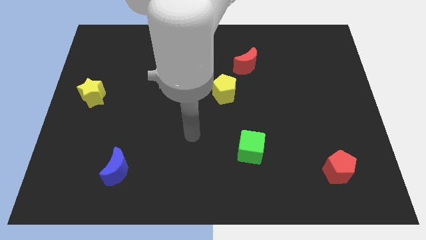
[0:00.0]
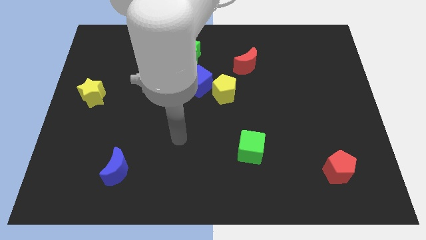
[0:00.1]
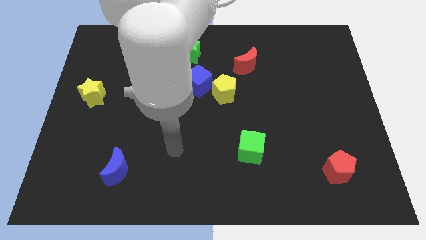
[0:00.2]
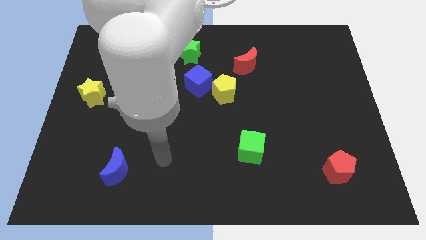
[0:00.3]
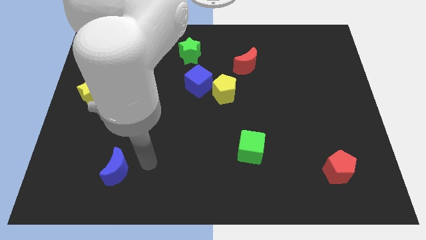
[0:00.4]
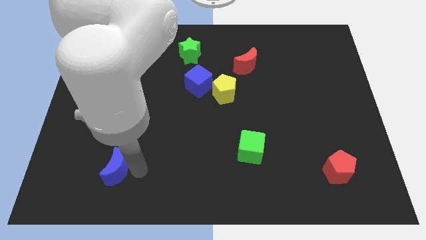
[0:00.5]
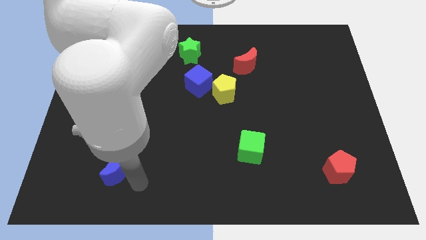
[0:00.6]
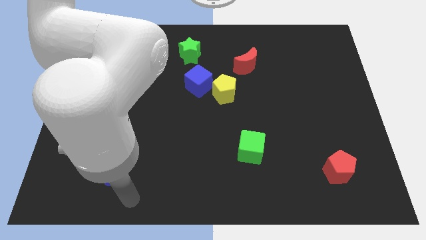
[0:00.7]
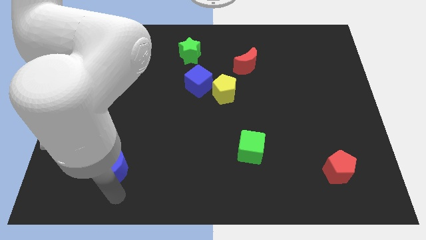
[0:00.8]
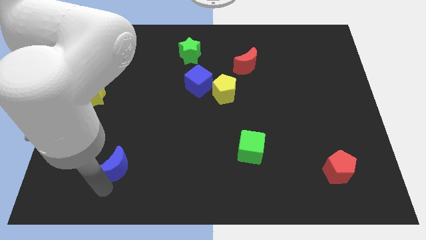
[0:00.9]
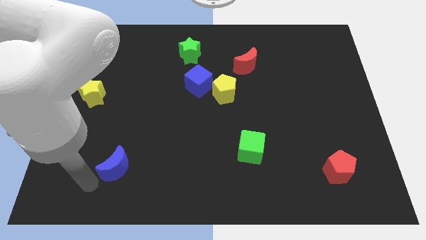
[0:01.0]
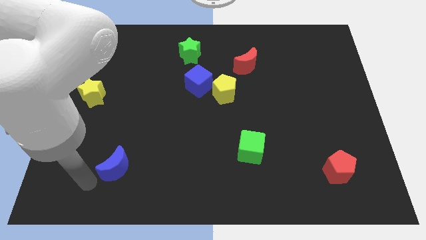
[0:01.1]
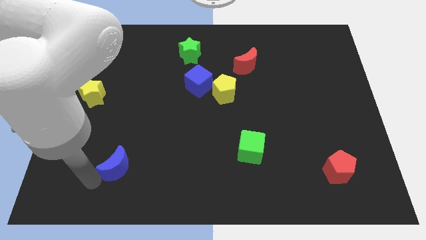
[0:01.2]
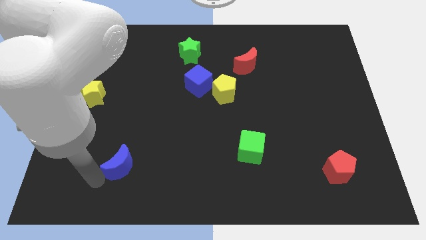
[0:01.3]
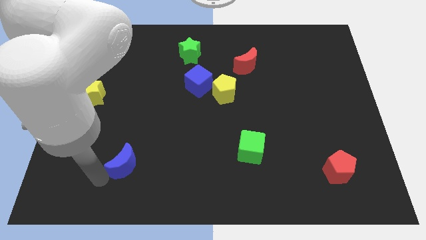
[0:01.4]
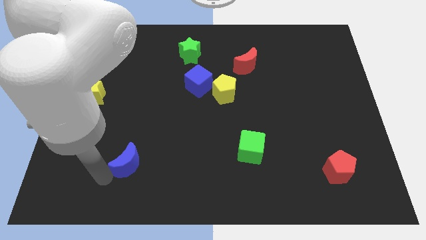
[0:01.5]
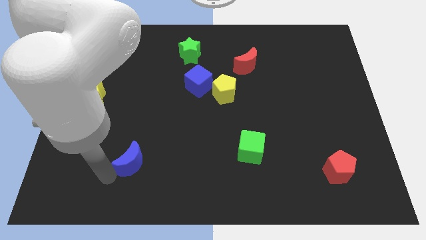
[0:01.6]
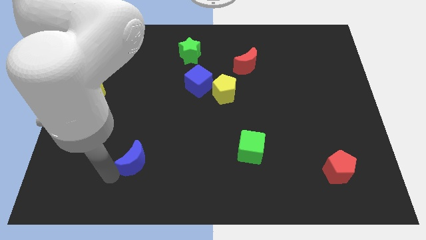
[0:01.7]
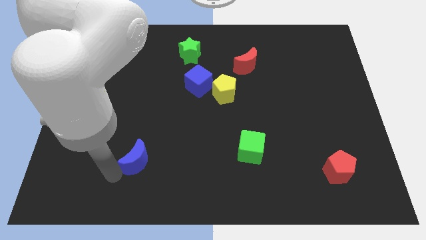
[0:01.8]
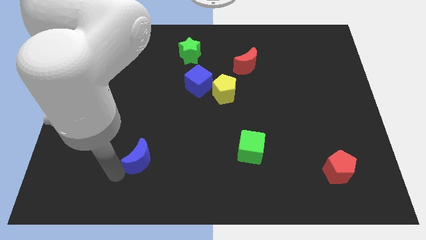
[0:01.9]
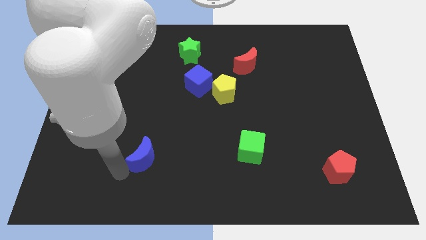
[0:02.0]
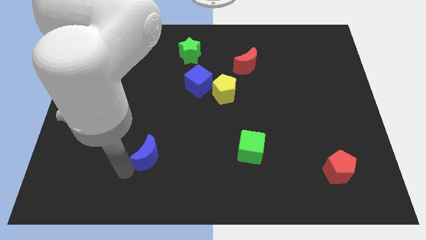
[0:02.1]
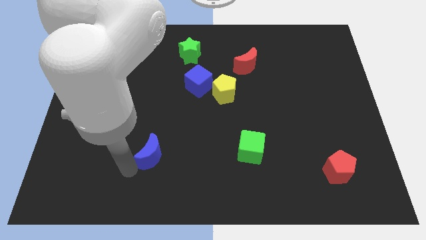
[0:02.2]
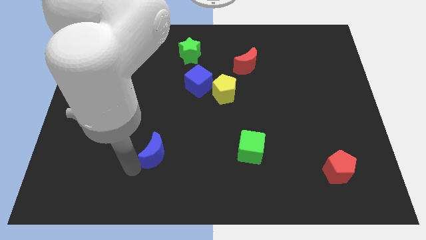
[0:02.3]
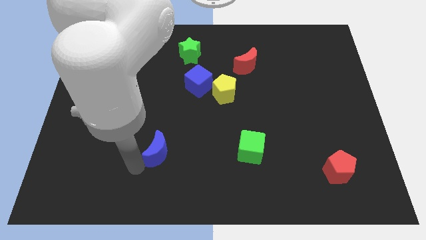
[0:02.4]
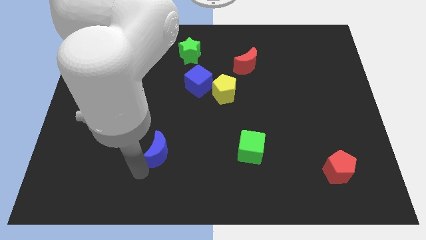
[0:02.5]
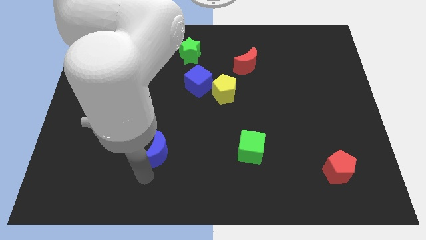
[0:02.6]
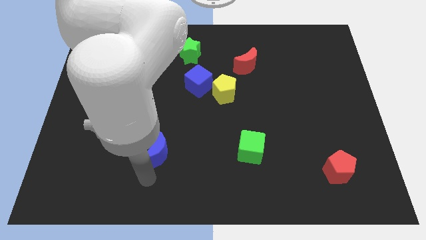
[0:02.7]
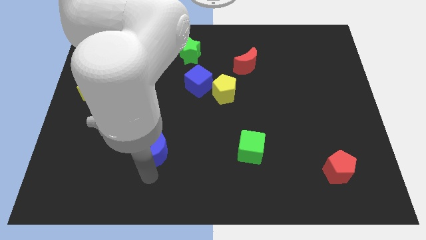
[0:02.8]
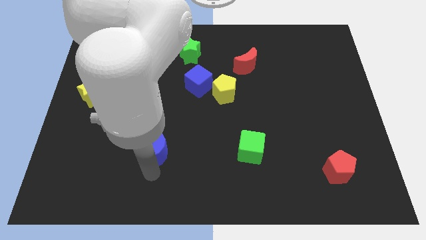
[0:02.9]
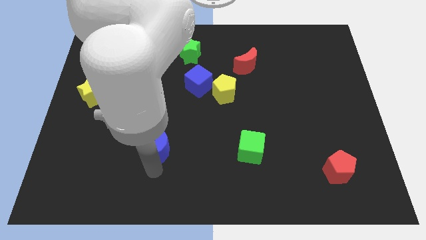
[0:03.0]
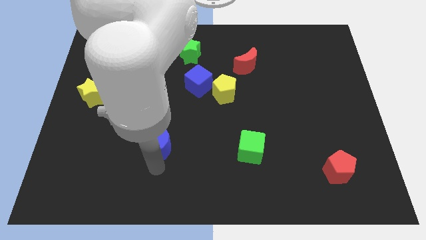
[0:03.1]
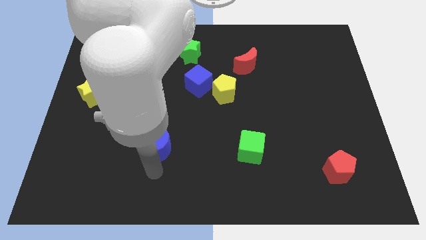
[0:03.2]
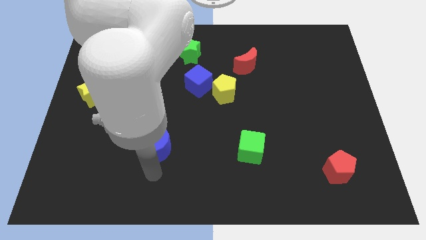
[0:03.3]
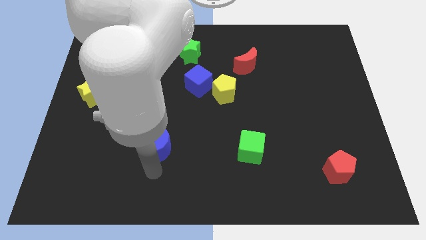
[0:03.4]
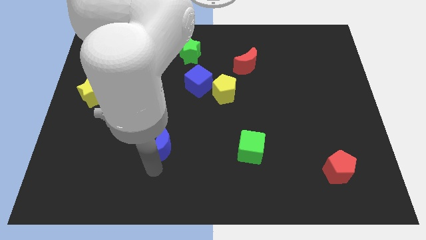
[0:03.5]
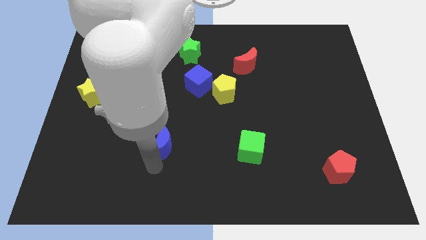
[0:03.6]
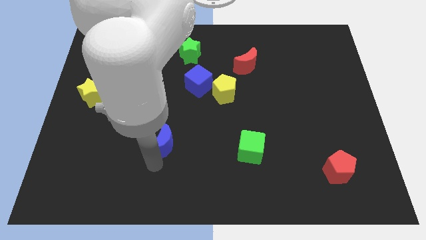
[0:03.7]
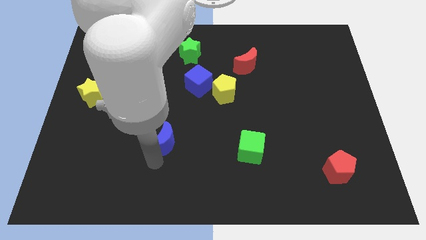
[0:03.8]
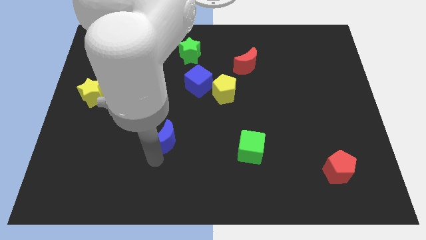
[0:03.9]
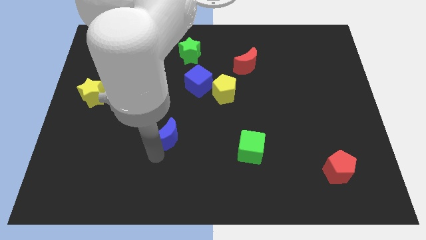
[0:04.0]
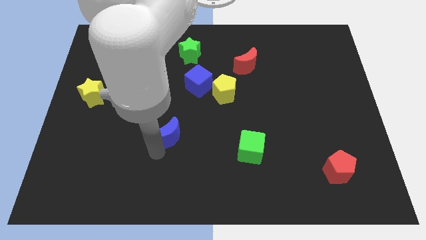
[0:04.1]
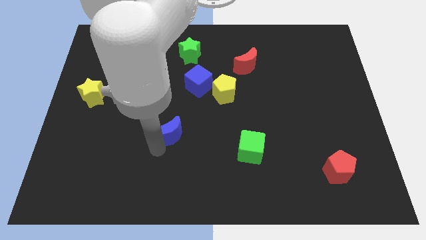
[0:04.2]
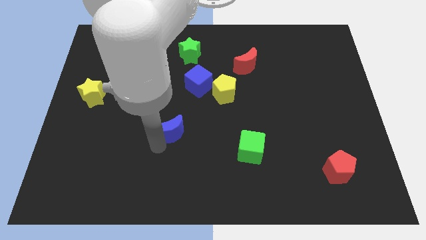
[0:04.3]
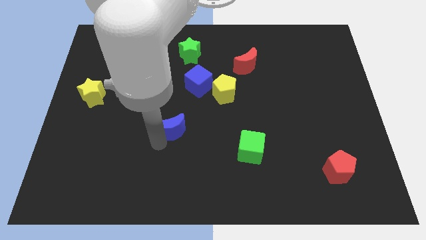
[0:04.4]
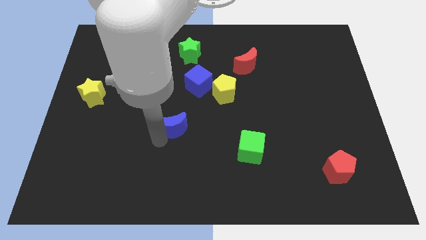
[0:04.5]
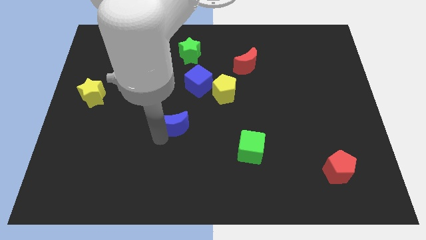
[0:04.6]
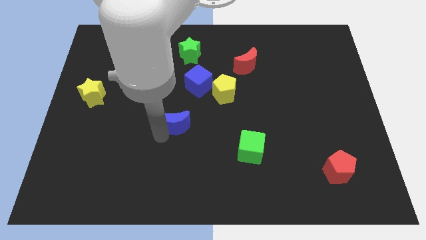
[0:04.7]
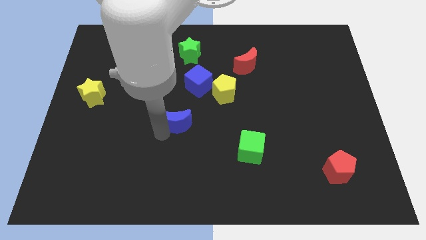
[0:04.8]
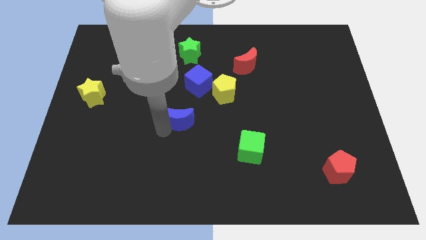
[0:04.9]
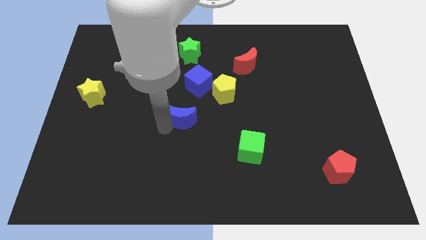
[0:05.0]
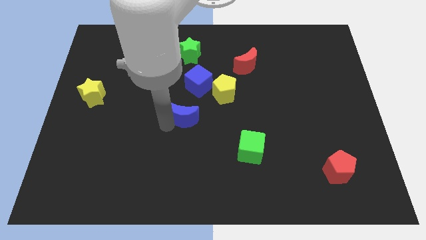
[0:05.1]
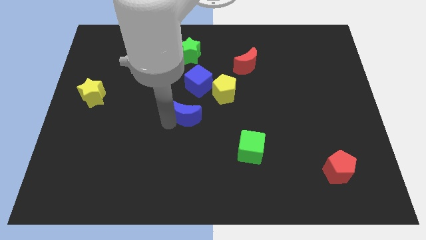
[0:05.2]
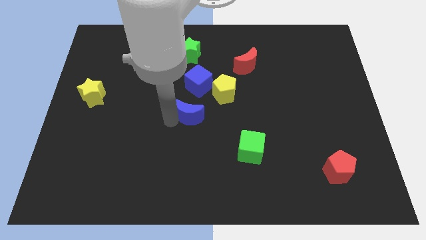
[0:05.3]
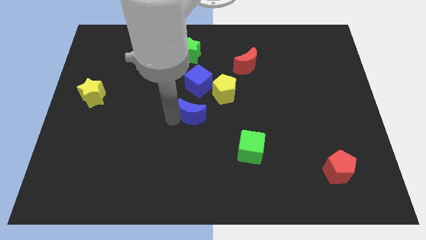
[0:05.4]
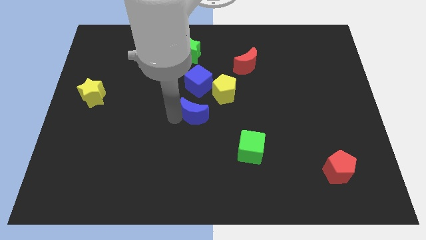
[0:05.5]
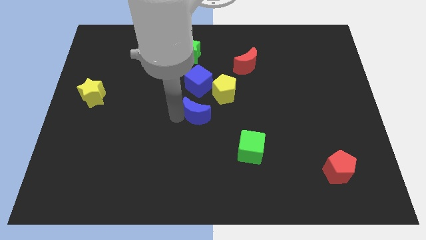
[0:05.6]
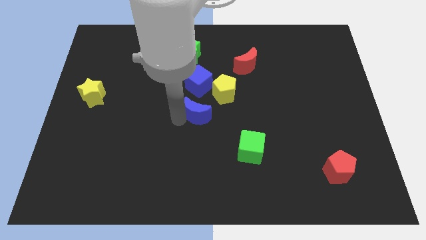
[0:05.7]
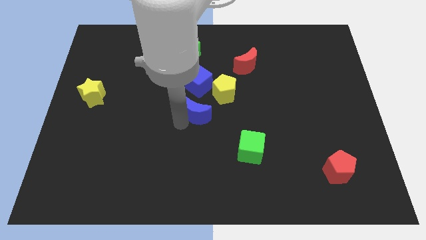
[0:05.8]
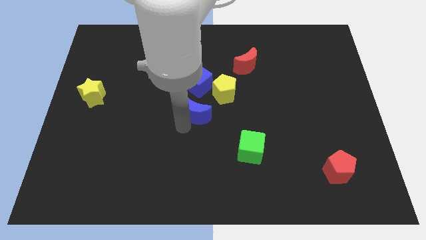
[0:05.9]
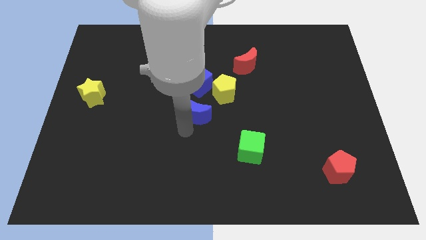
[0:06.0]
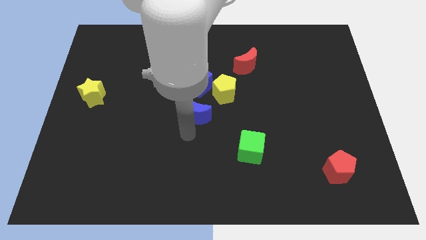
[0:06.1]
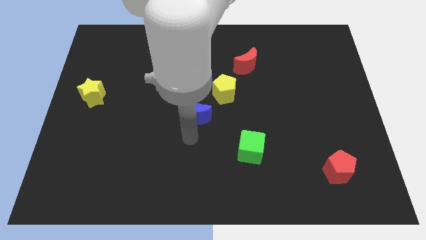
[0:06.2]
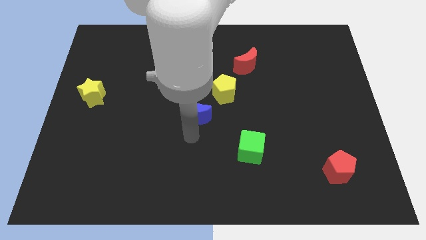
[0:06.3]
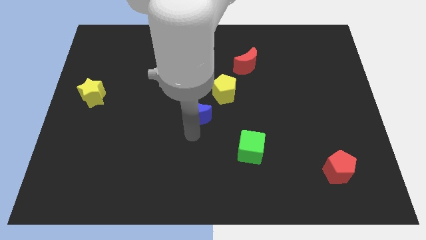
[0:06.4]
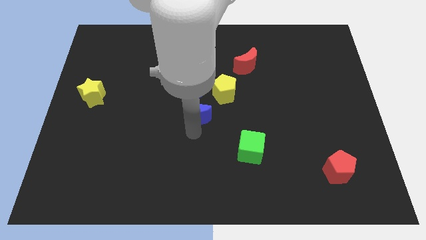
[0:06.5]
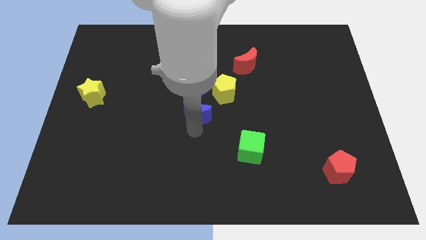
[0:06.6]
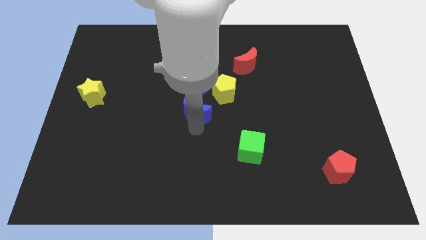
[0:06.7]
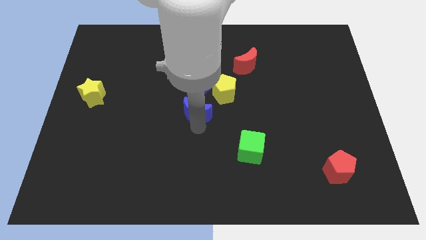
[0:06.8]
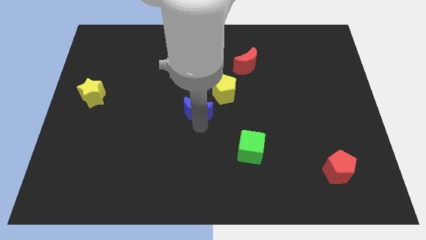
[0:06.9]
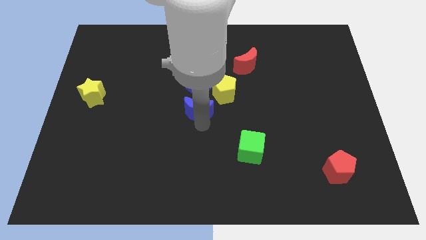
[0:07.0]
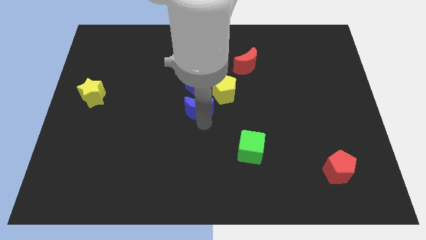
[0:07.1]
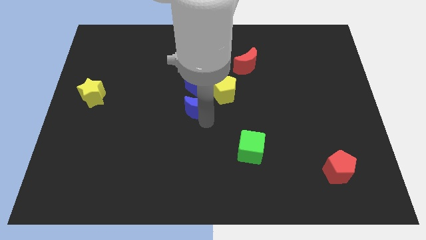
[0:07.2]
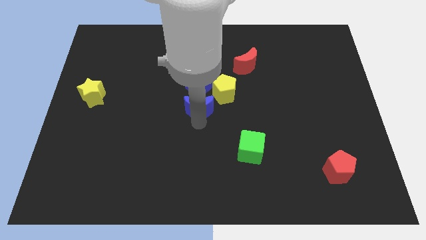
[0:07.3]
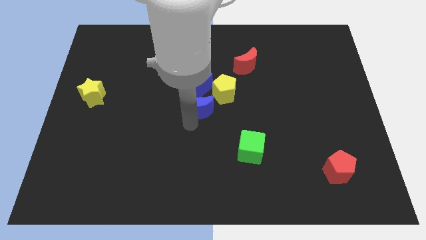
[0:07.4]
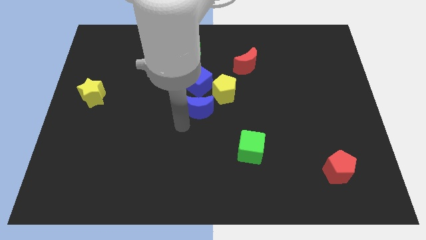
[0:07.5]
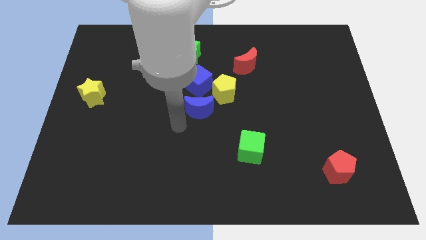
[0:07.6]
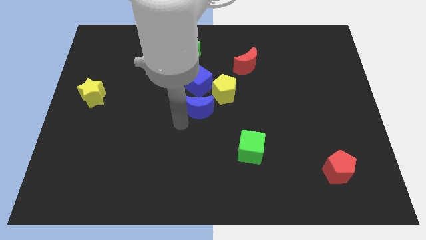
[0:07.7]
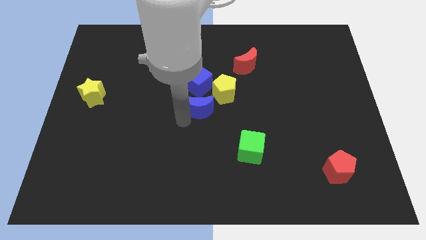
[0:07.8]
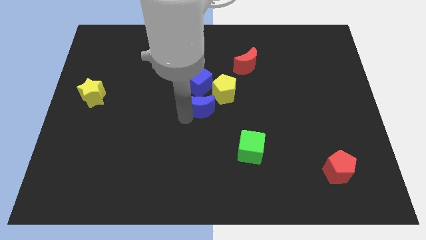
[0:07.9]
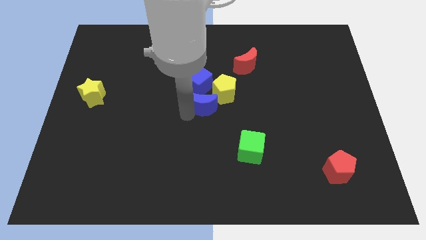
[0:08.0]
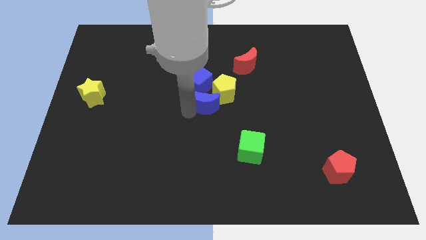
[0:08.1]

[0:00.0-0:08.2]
slide the blue moon next to the yellow pentagon
